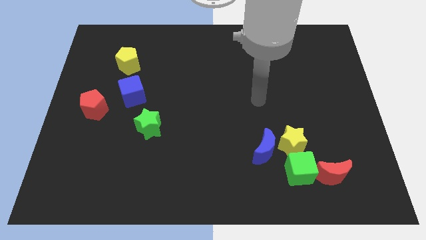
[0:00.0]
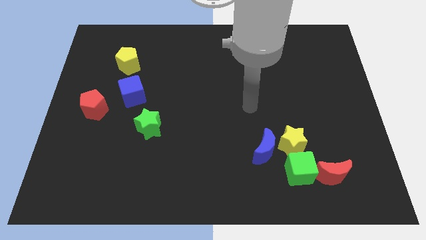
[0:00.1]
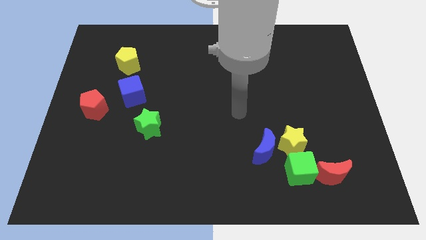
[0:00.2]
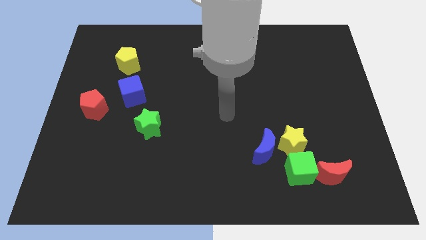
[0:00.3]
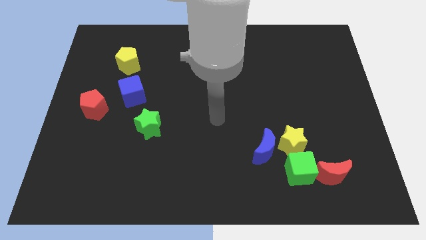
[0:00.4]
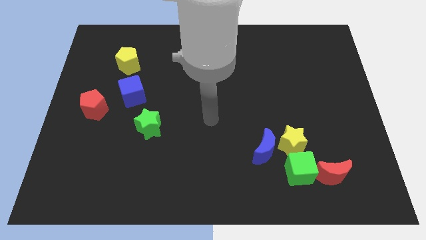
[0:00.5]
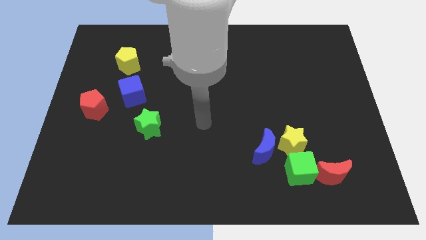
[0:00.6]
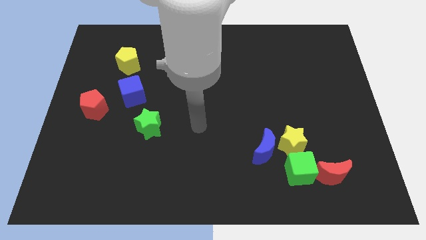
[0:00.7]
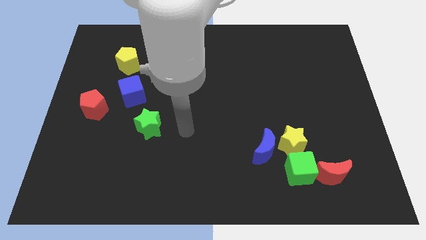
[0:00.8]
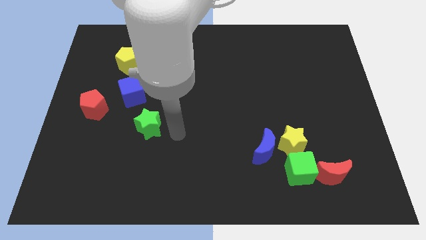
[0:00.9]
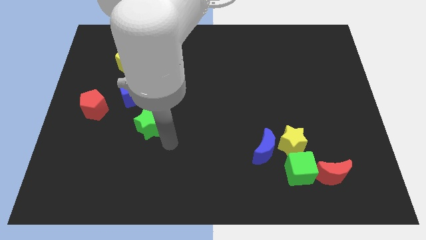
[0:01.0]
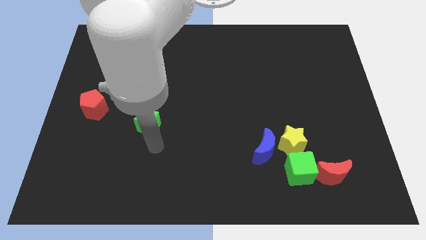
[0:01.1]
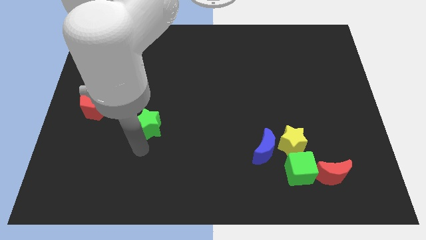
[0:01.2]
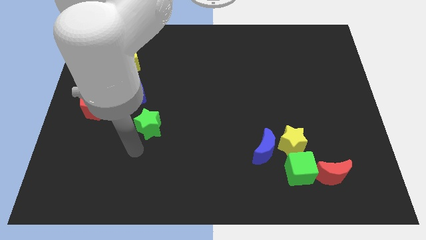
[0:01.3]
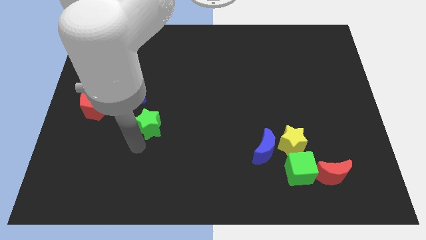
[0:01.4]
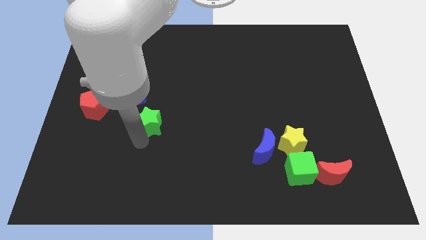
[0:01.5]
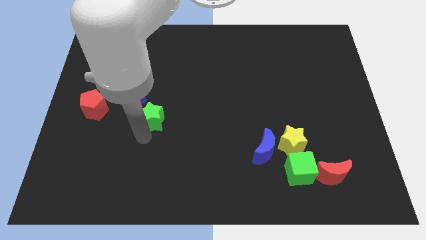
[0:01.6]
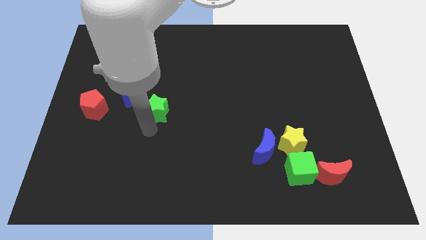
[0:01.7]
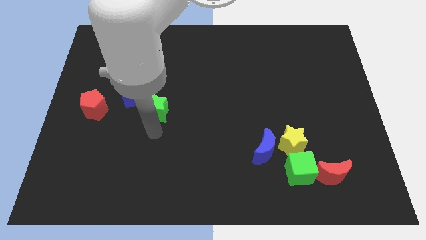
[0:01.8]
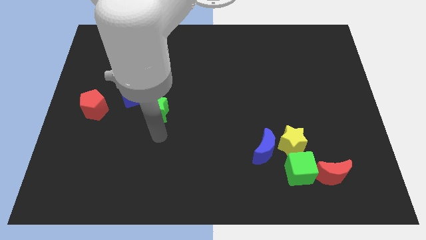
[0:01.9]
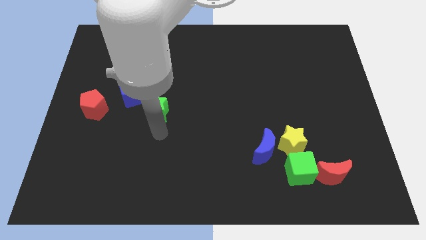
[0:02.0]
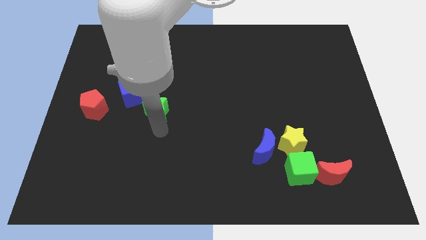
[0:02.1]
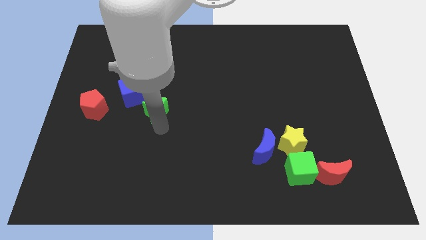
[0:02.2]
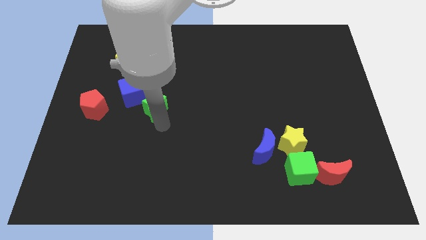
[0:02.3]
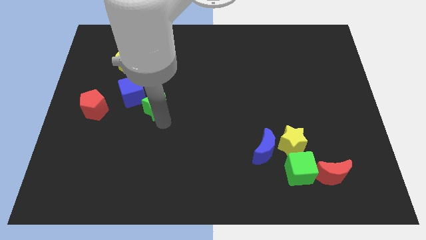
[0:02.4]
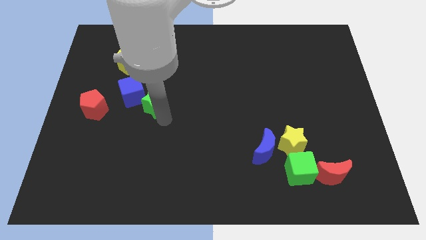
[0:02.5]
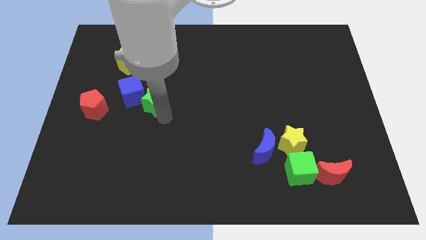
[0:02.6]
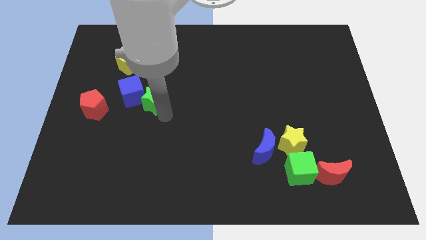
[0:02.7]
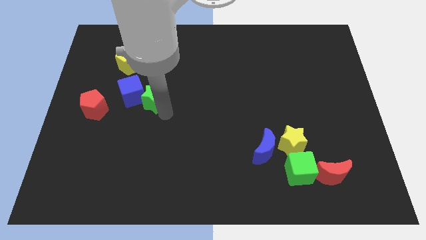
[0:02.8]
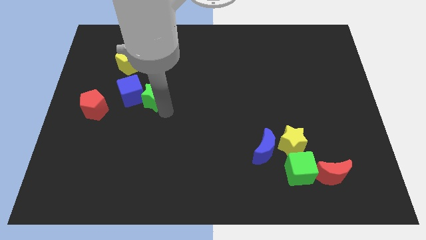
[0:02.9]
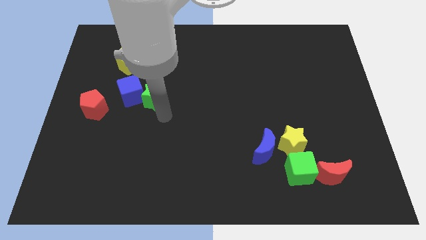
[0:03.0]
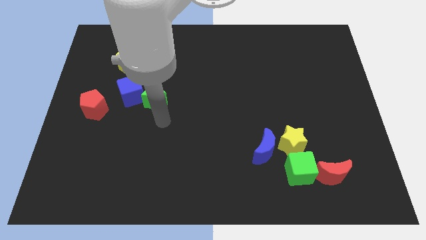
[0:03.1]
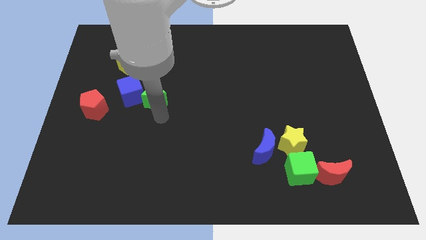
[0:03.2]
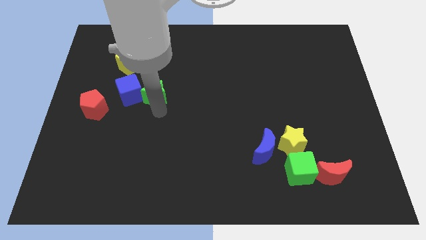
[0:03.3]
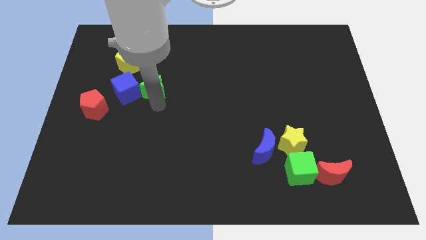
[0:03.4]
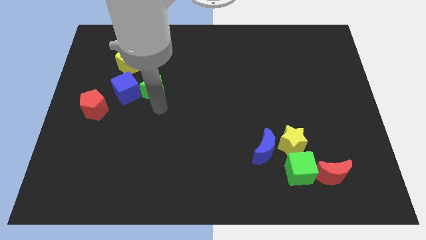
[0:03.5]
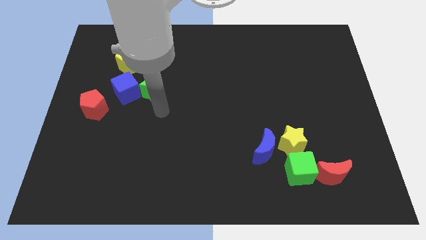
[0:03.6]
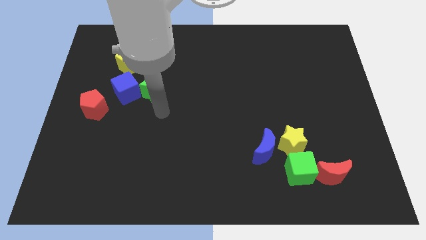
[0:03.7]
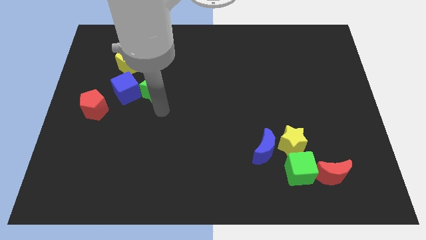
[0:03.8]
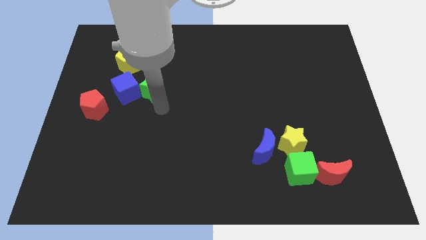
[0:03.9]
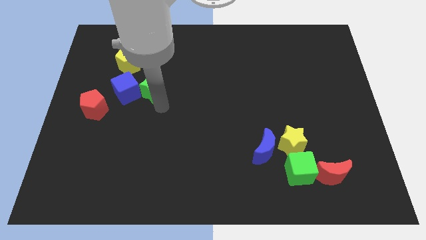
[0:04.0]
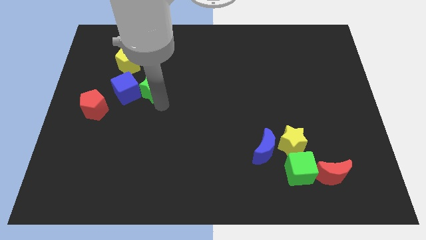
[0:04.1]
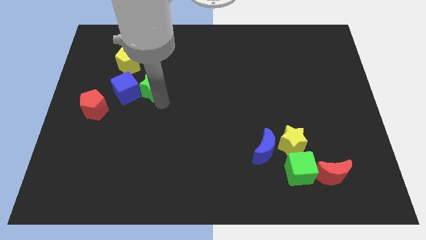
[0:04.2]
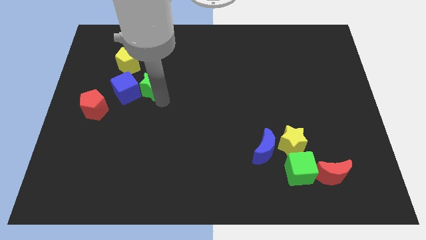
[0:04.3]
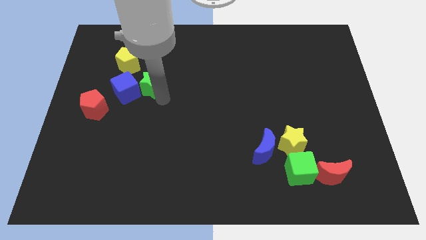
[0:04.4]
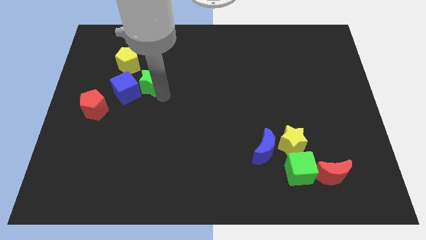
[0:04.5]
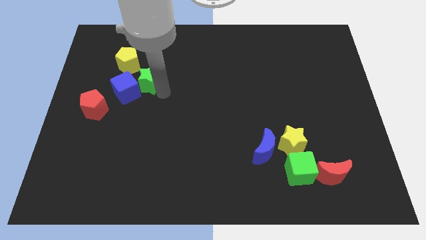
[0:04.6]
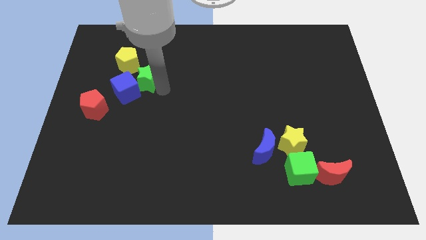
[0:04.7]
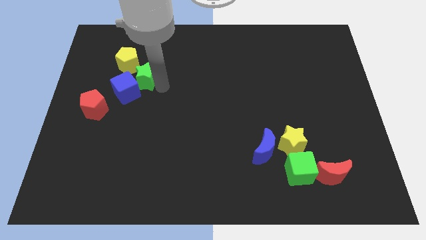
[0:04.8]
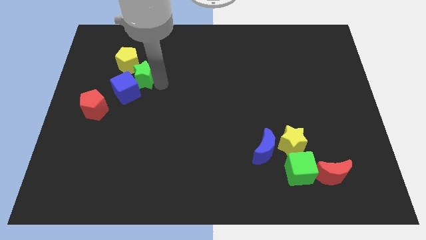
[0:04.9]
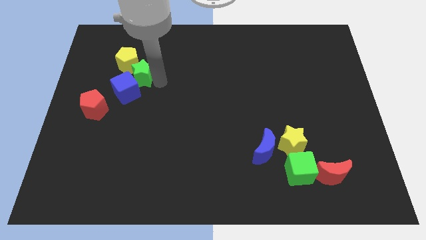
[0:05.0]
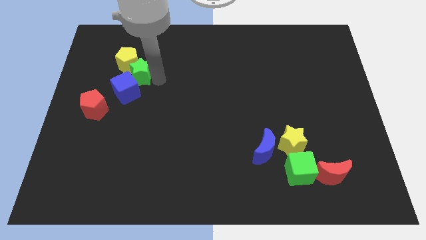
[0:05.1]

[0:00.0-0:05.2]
slide the green star to the yellow pentagon

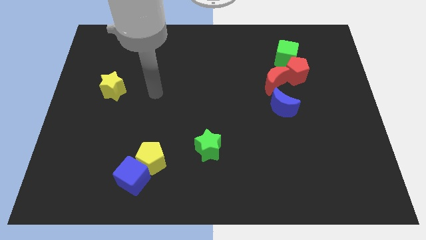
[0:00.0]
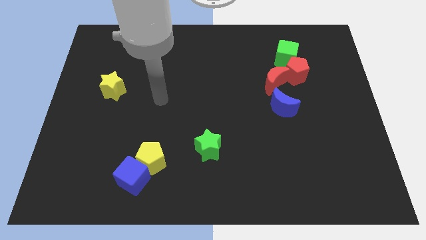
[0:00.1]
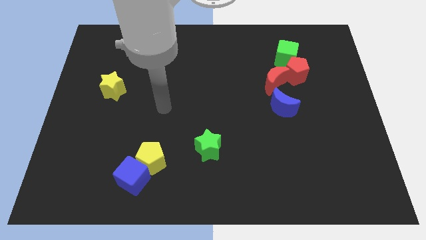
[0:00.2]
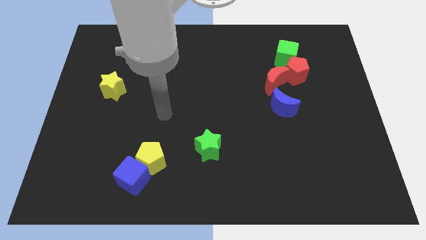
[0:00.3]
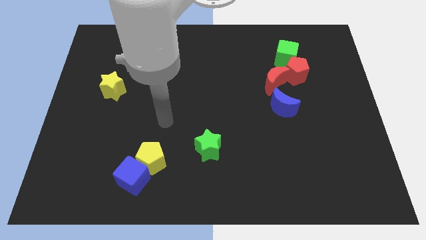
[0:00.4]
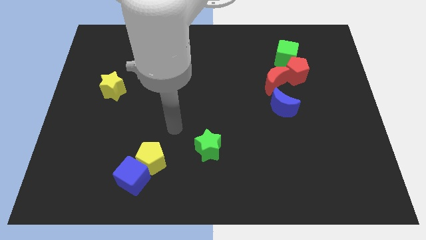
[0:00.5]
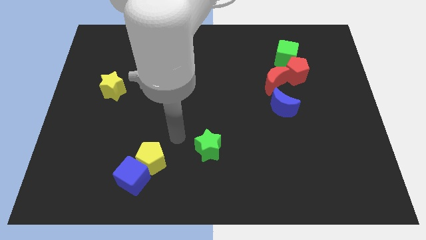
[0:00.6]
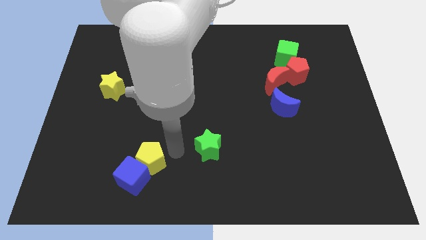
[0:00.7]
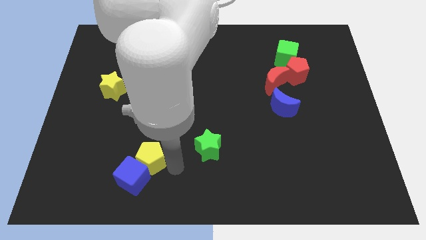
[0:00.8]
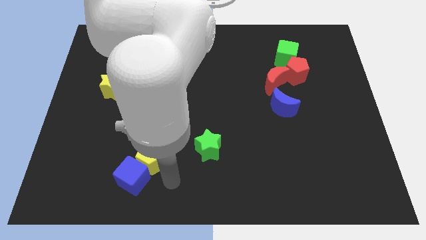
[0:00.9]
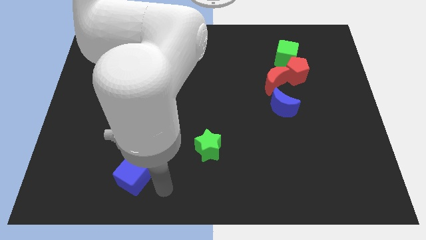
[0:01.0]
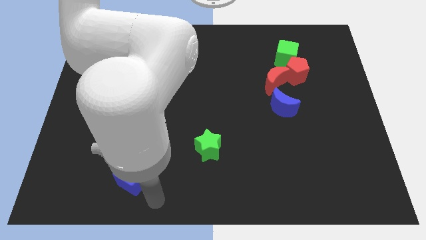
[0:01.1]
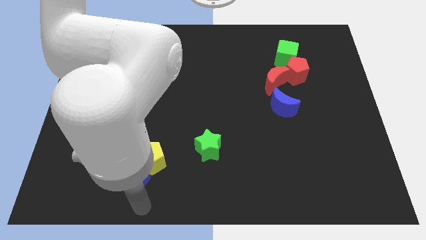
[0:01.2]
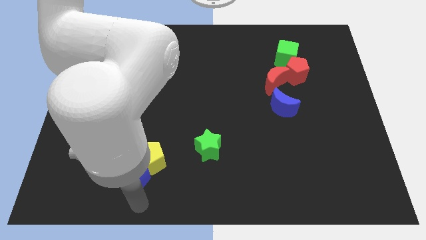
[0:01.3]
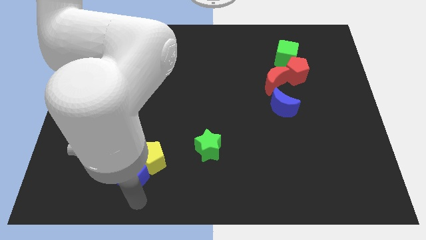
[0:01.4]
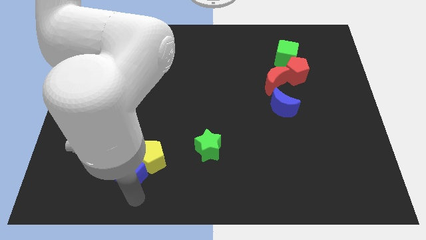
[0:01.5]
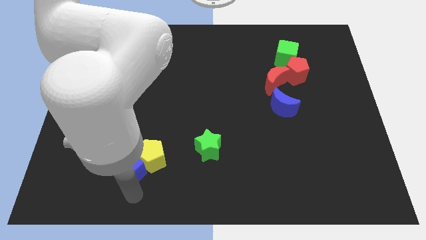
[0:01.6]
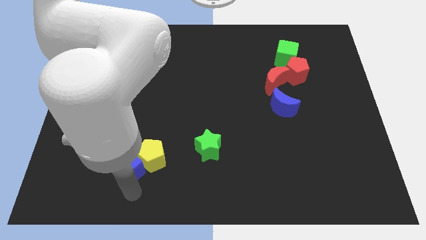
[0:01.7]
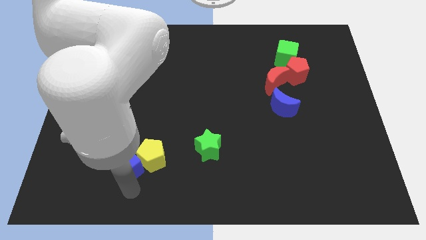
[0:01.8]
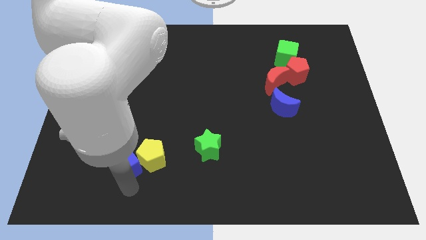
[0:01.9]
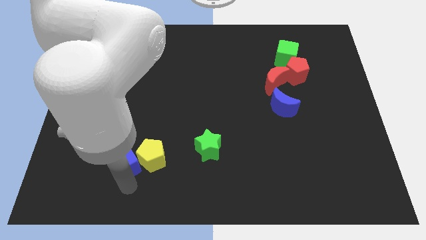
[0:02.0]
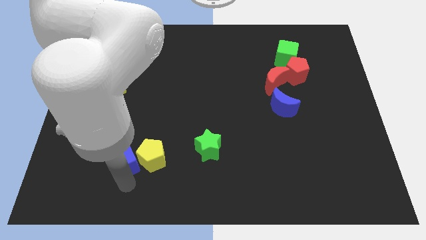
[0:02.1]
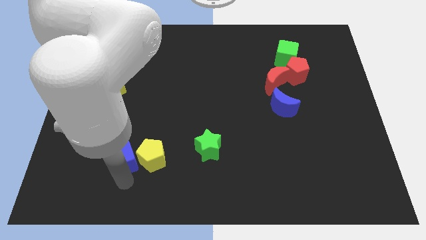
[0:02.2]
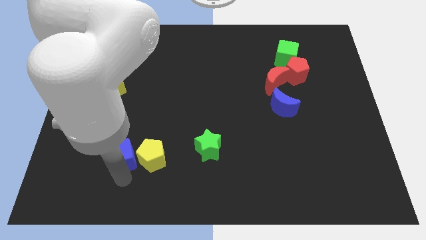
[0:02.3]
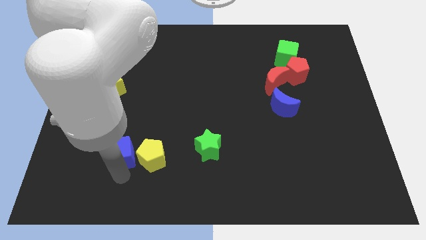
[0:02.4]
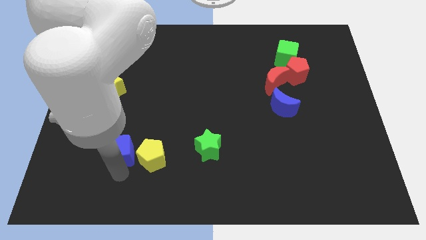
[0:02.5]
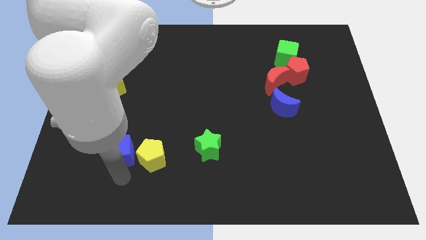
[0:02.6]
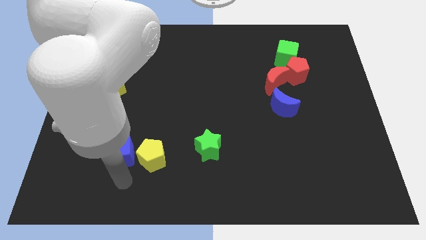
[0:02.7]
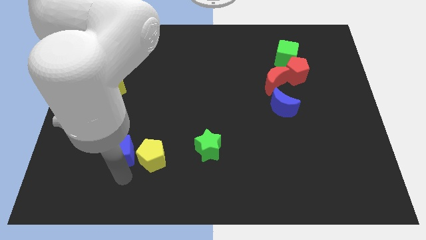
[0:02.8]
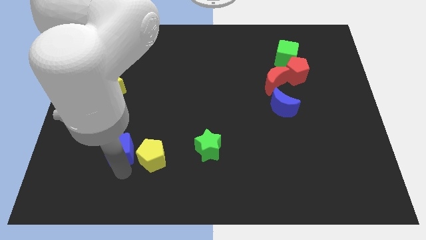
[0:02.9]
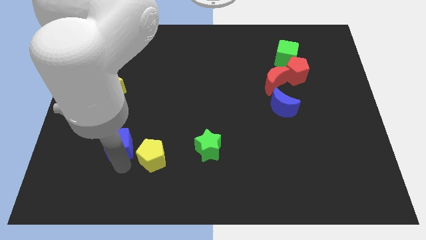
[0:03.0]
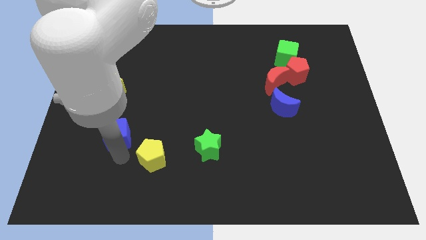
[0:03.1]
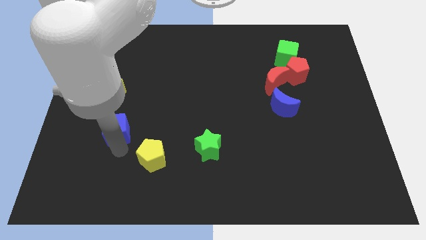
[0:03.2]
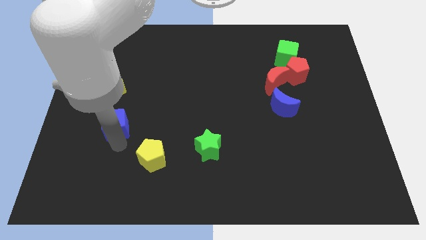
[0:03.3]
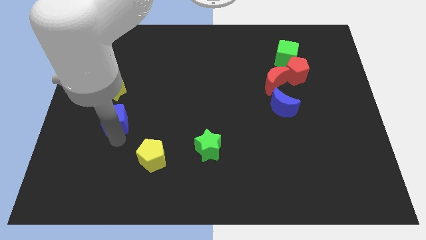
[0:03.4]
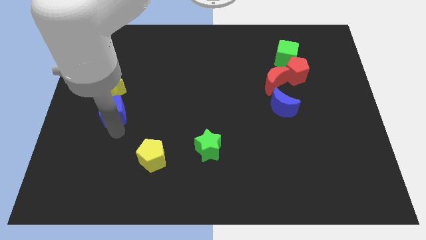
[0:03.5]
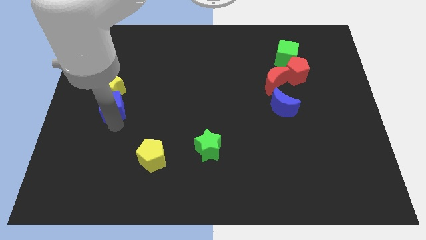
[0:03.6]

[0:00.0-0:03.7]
put the blue cube close to the yellow star
